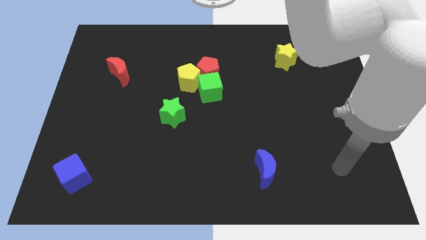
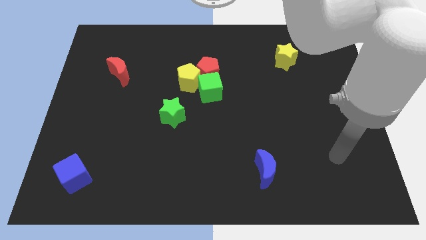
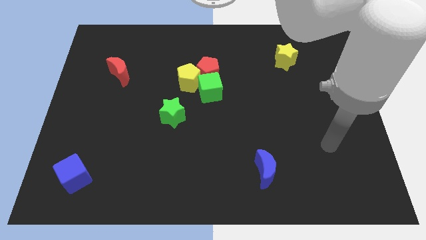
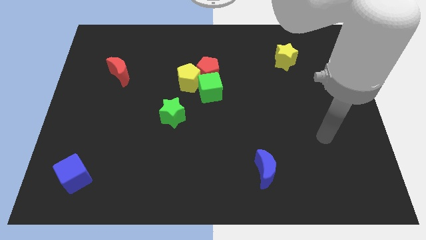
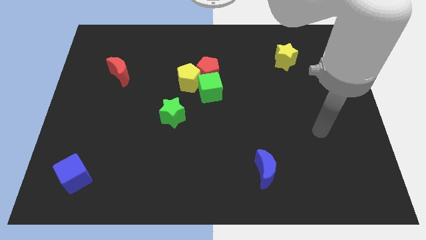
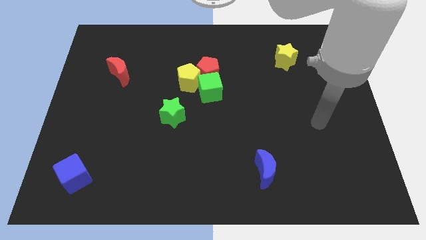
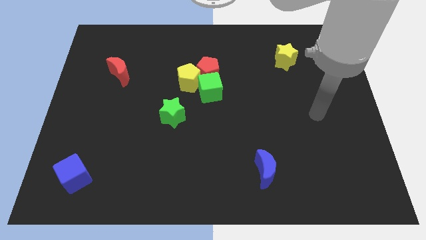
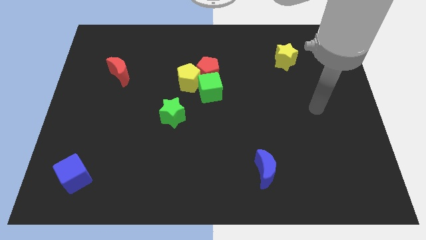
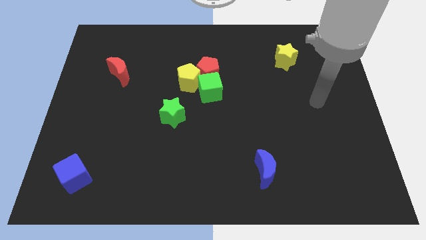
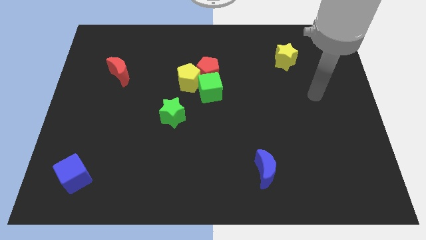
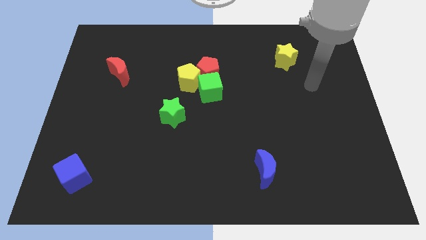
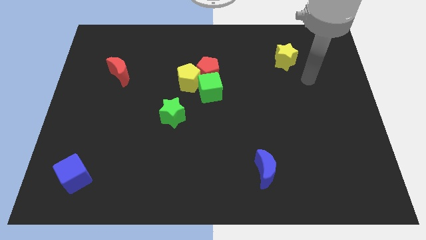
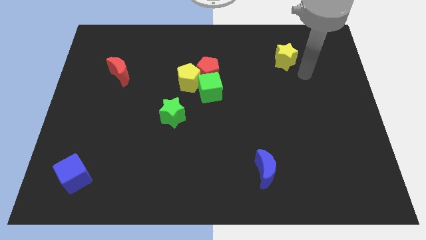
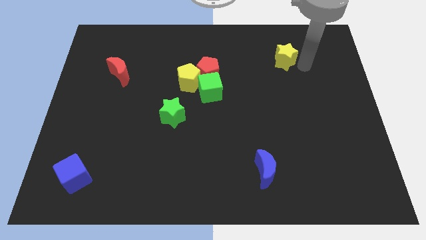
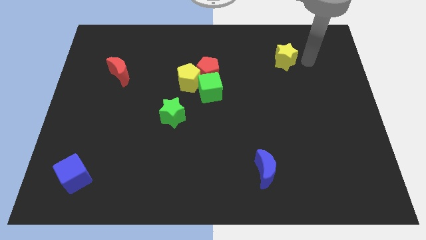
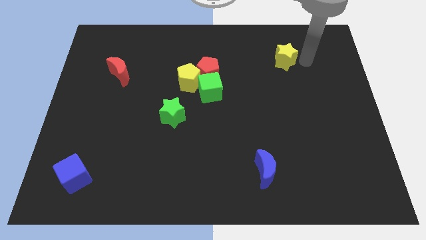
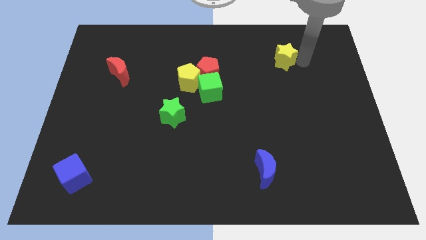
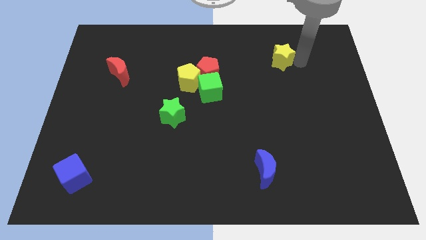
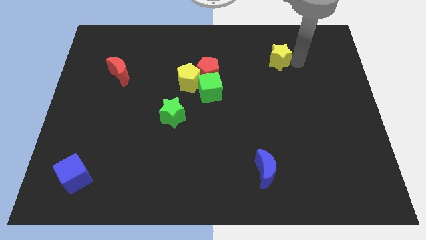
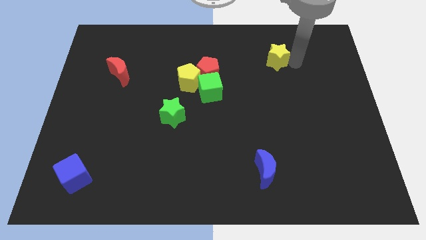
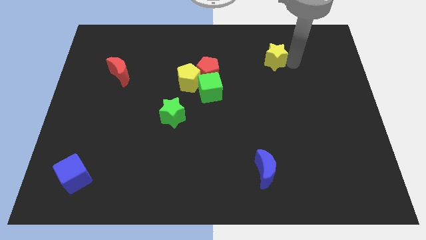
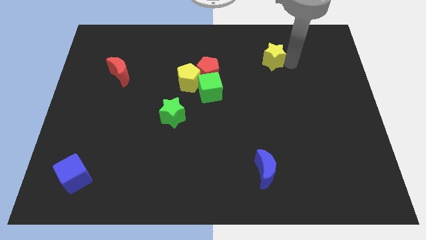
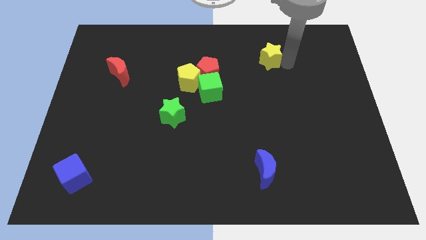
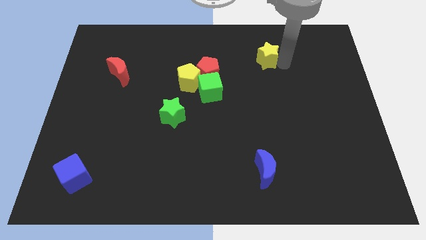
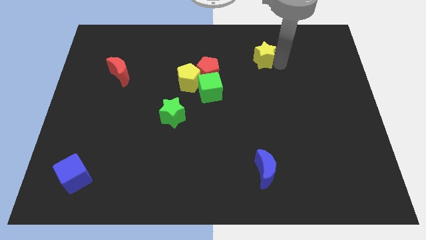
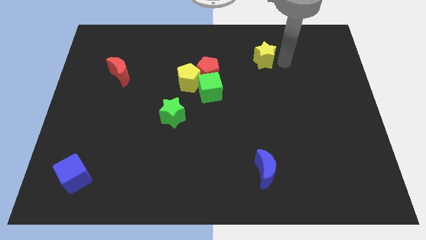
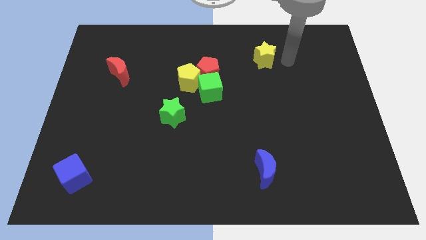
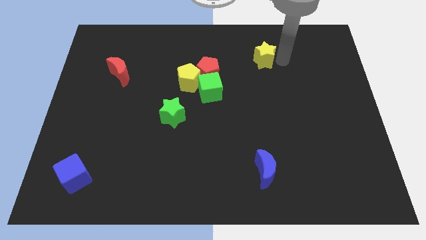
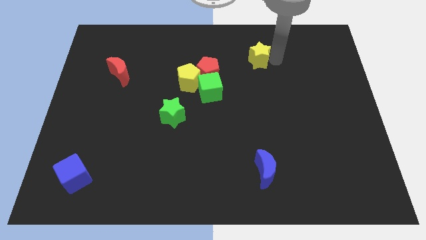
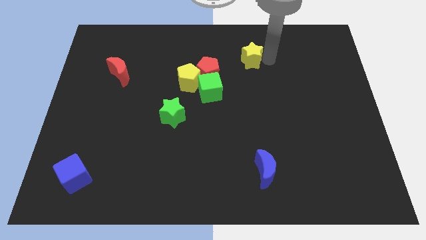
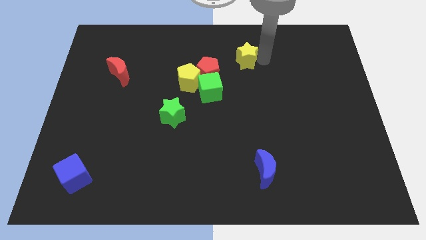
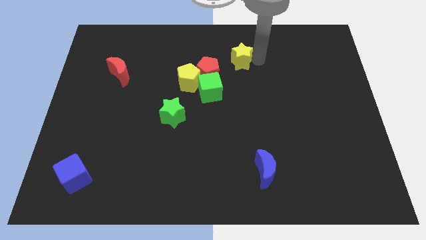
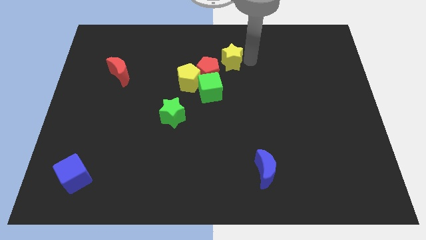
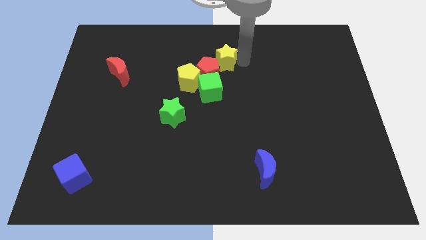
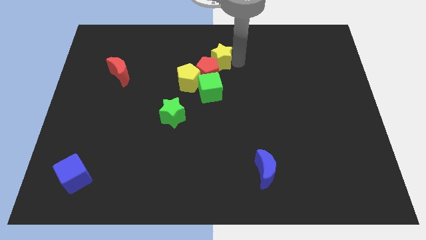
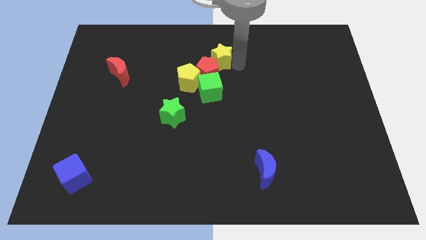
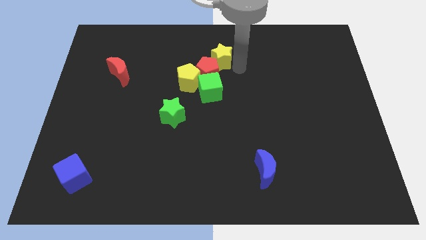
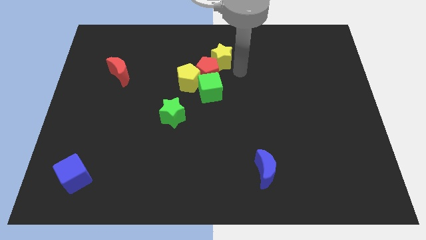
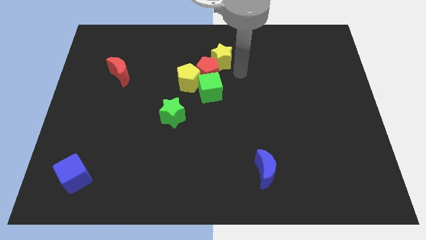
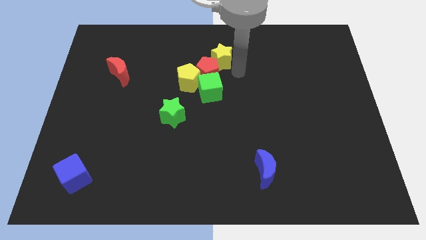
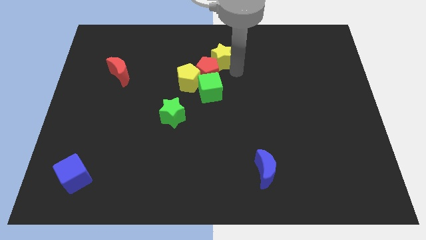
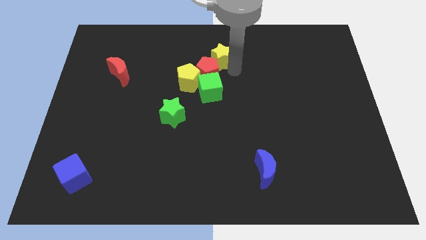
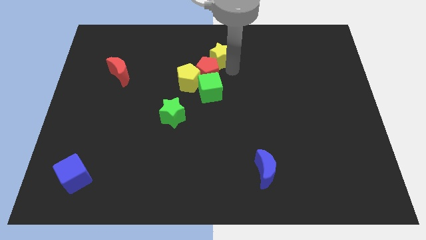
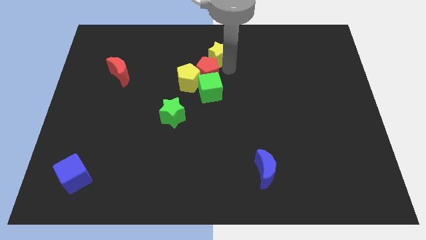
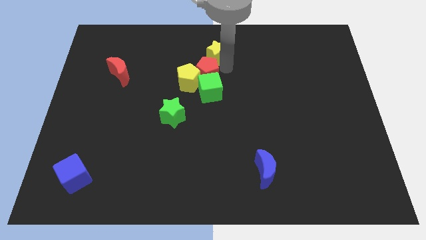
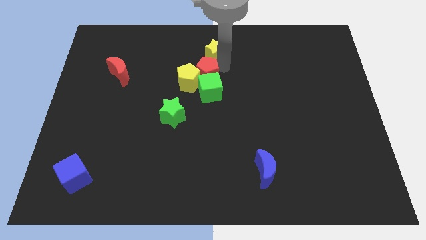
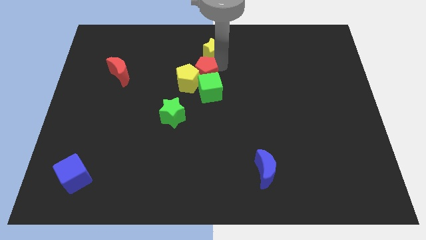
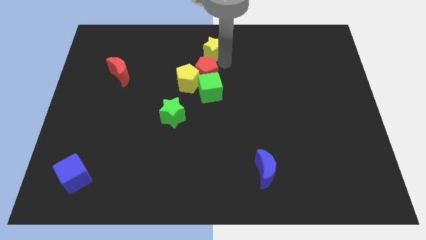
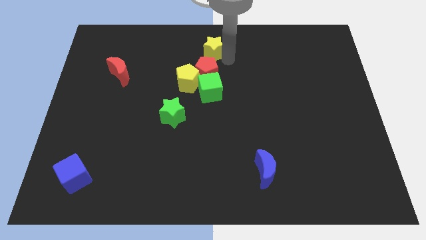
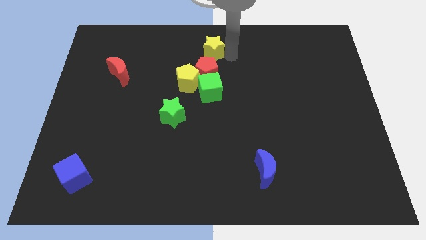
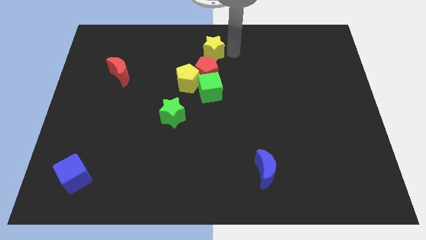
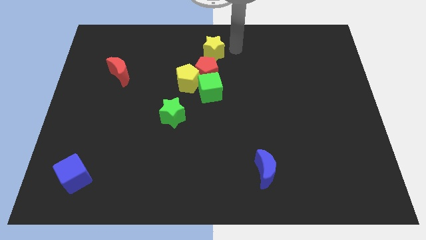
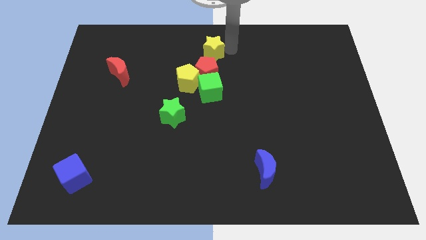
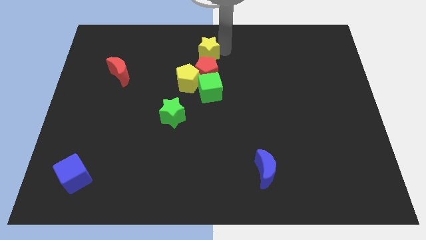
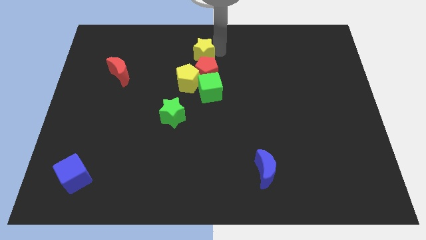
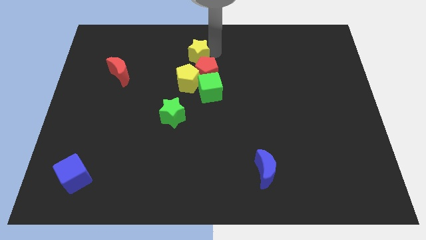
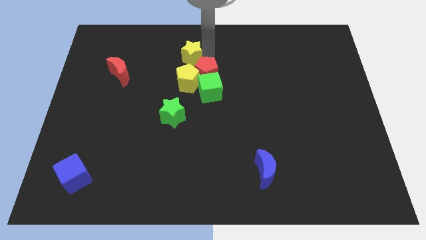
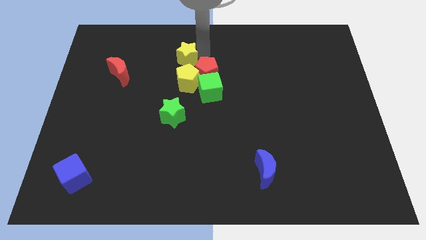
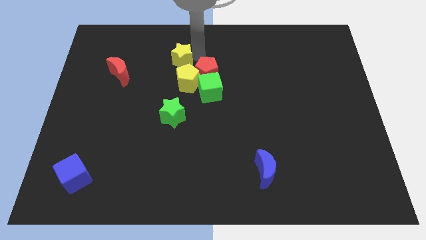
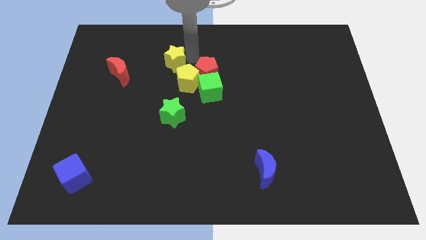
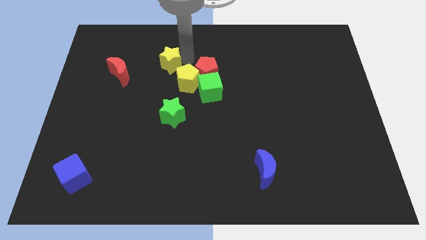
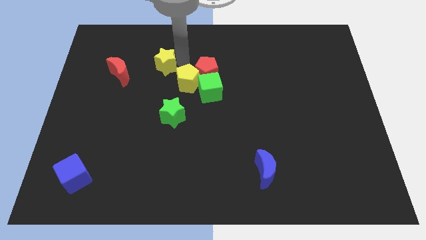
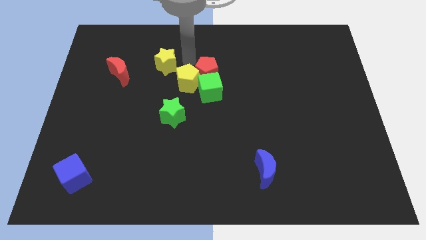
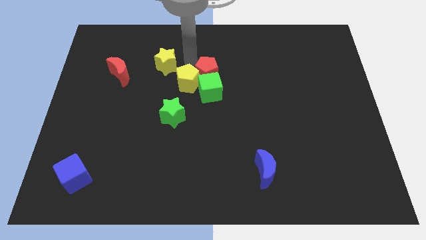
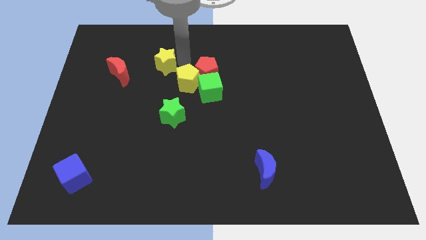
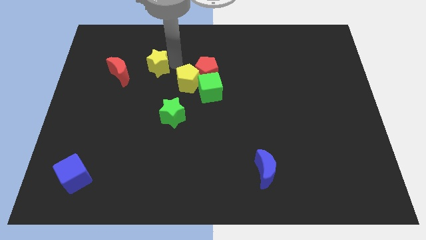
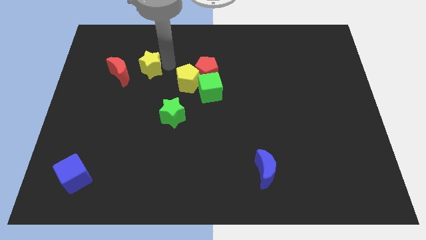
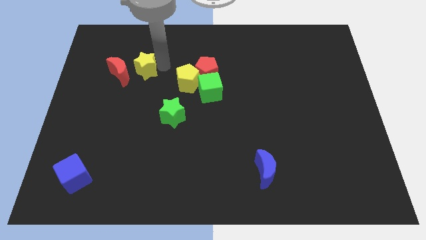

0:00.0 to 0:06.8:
move the yellow star close to the red moon
